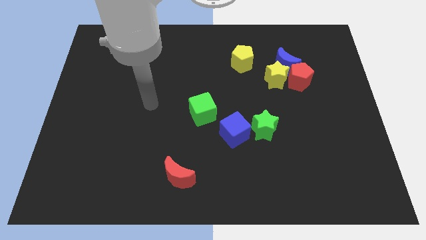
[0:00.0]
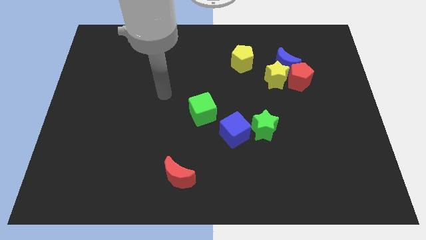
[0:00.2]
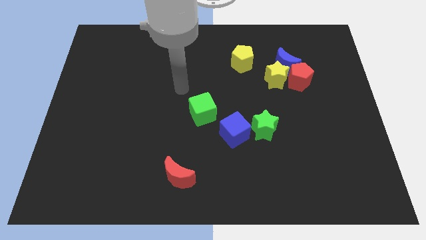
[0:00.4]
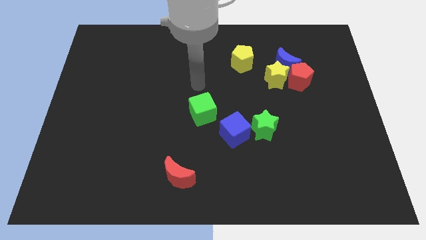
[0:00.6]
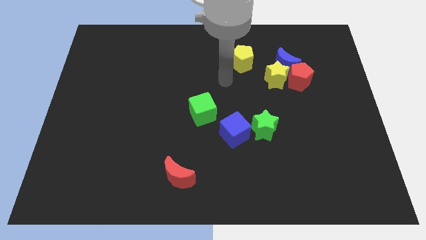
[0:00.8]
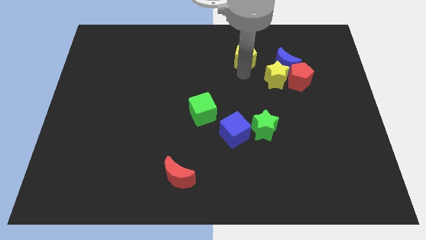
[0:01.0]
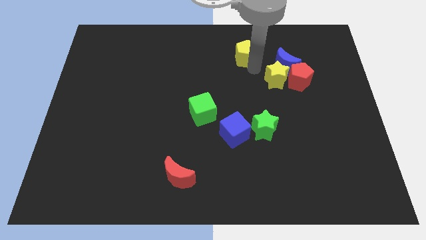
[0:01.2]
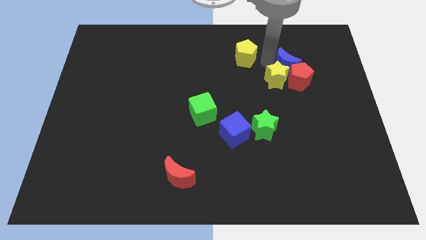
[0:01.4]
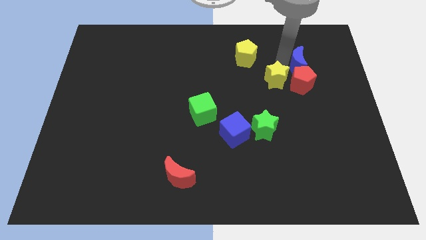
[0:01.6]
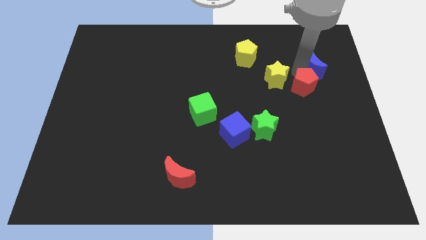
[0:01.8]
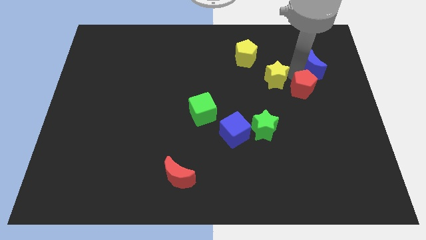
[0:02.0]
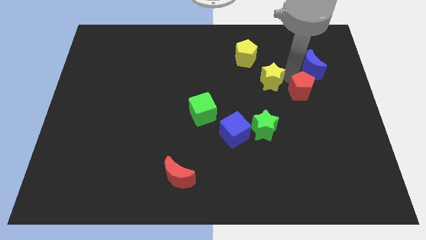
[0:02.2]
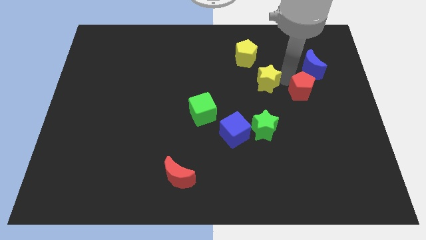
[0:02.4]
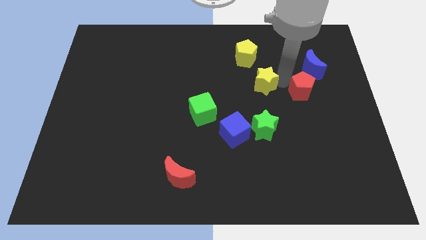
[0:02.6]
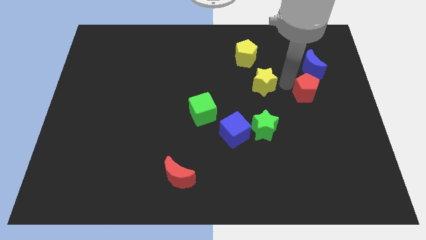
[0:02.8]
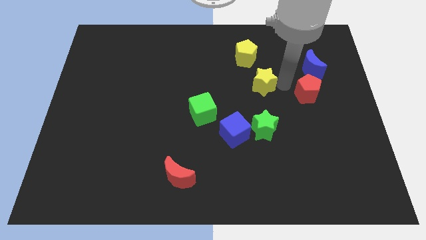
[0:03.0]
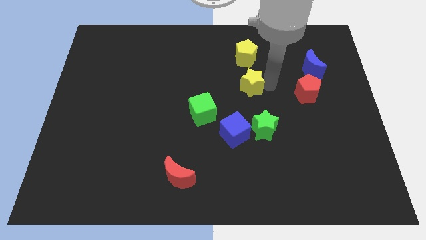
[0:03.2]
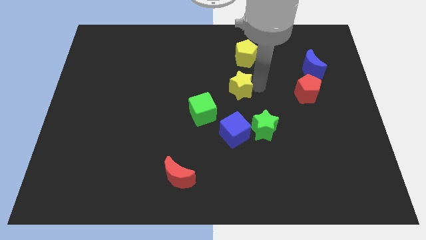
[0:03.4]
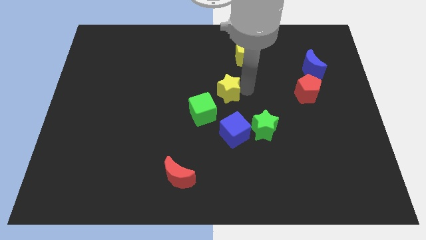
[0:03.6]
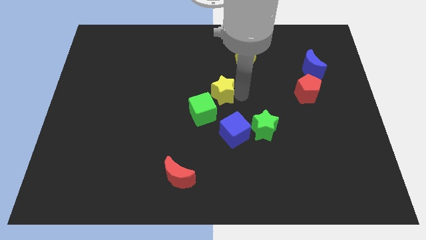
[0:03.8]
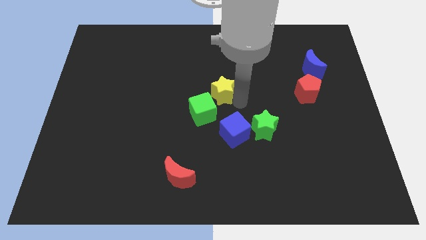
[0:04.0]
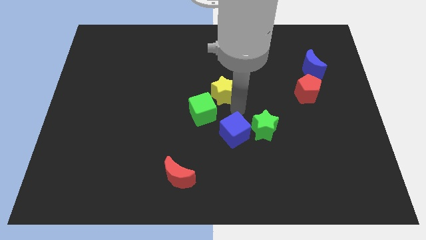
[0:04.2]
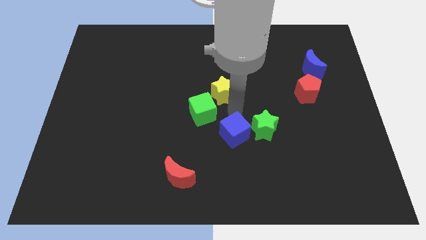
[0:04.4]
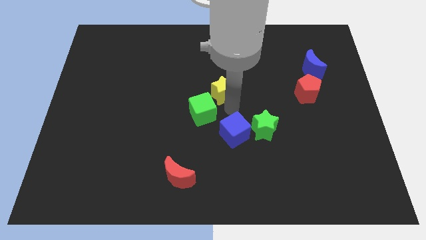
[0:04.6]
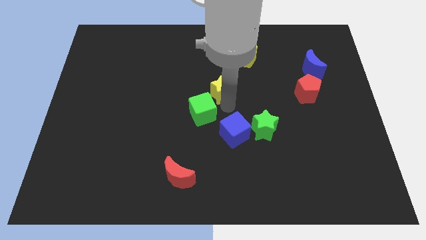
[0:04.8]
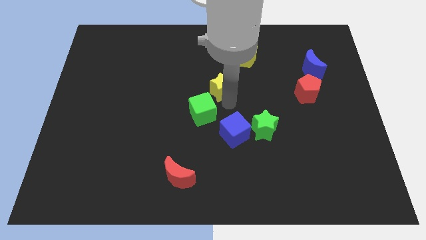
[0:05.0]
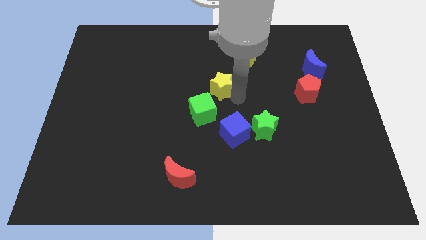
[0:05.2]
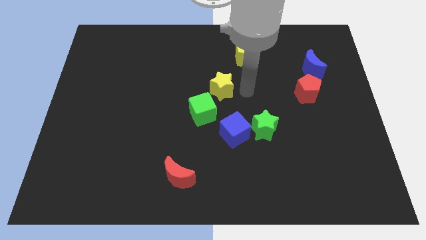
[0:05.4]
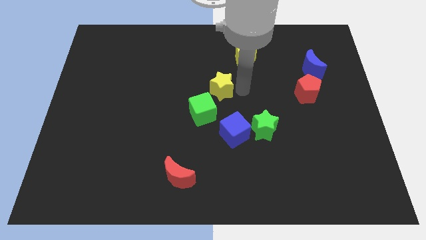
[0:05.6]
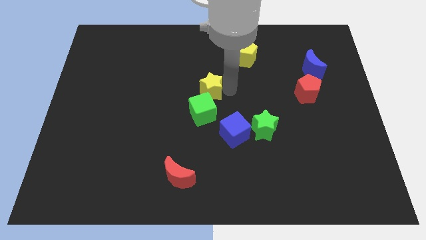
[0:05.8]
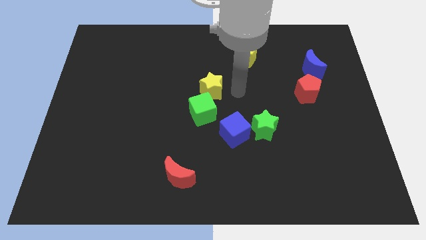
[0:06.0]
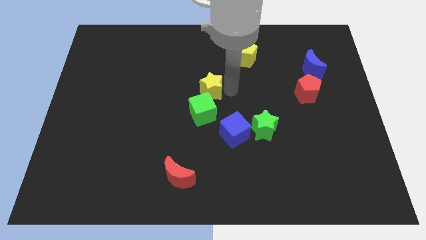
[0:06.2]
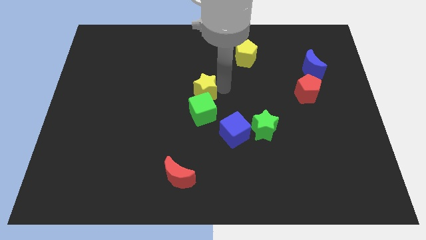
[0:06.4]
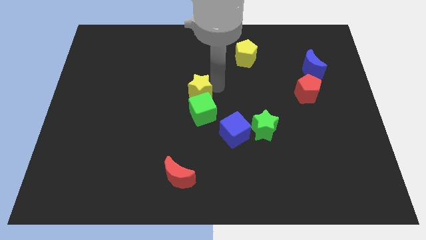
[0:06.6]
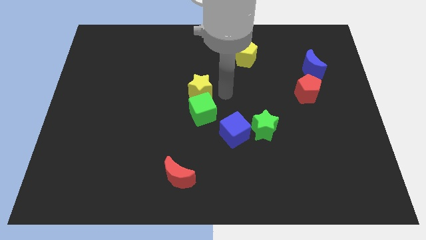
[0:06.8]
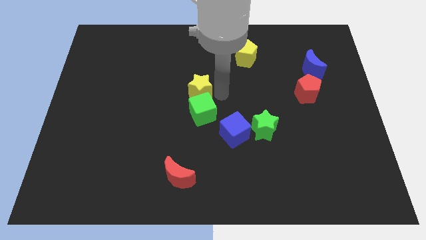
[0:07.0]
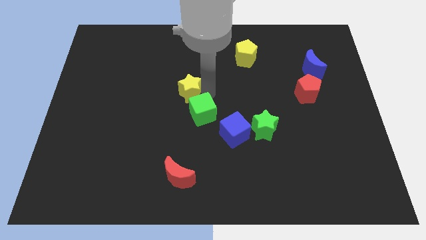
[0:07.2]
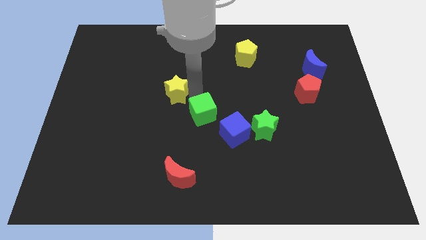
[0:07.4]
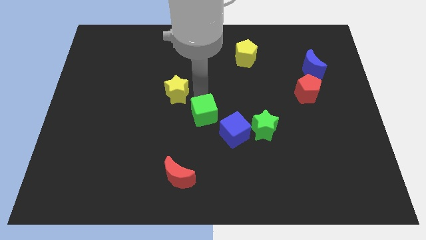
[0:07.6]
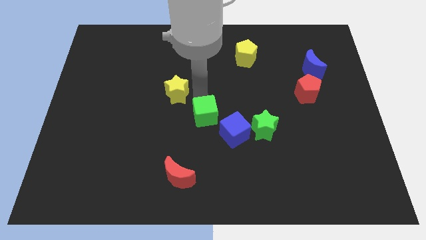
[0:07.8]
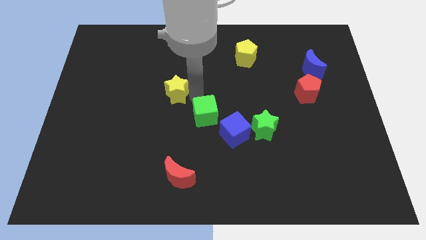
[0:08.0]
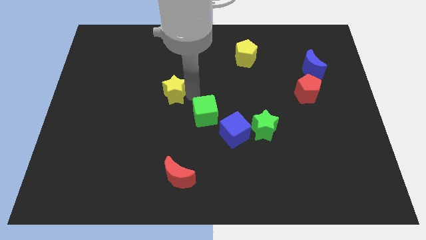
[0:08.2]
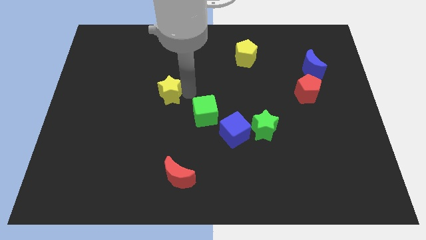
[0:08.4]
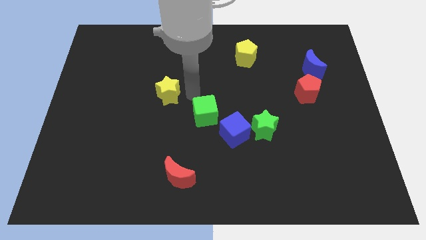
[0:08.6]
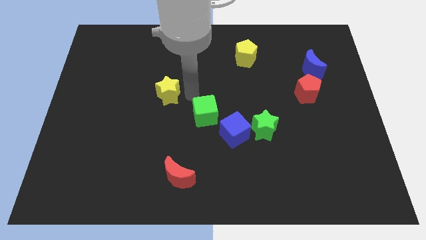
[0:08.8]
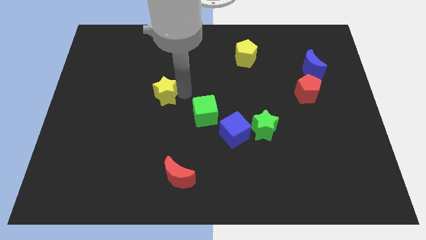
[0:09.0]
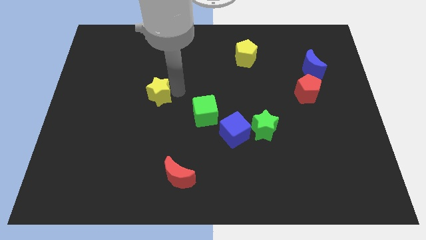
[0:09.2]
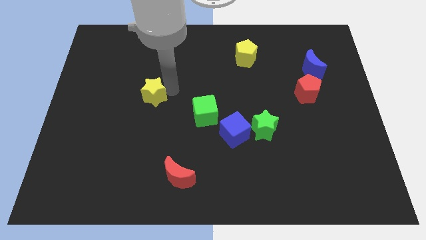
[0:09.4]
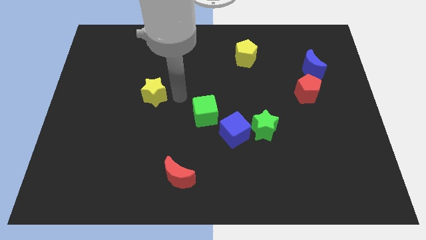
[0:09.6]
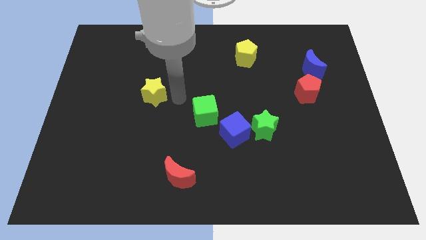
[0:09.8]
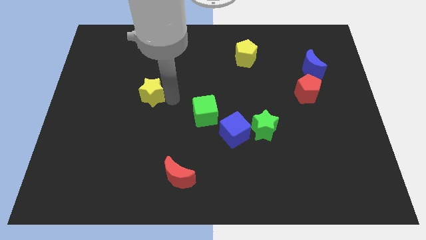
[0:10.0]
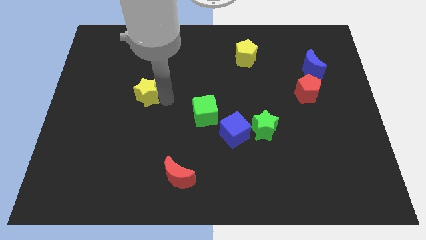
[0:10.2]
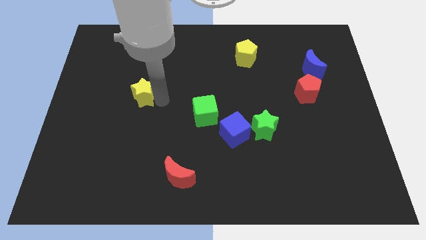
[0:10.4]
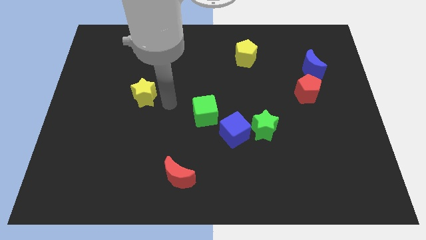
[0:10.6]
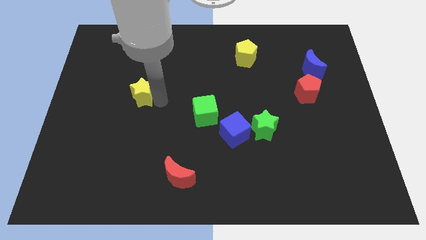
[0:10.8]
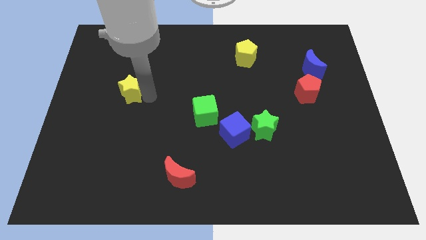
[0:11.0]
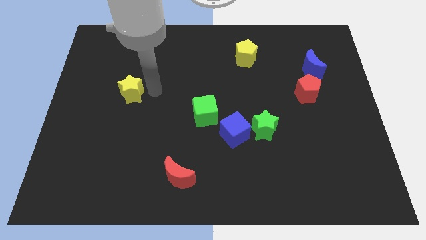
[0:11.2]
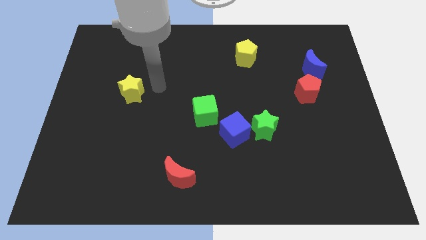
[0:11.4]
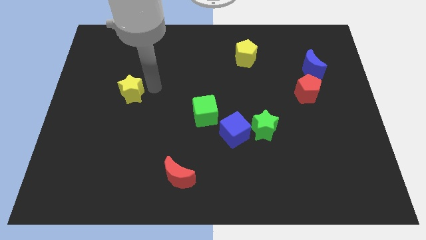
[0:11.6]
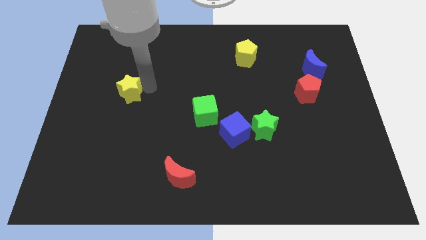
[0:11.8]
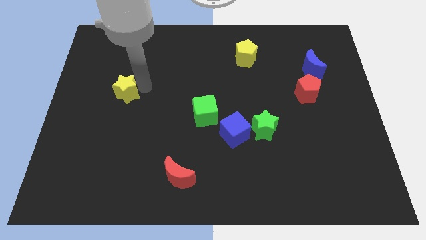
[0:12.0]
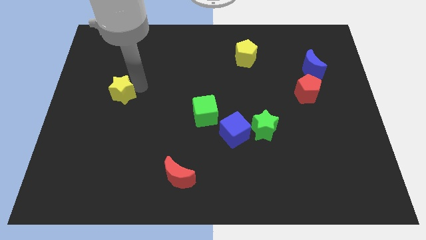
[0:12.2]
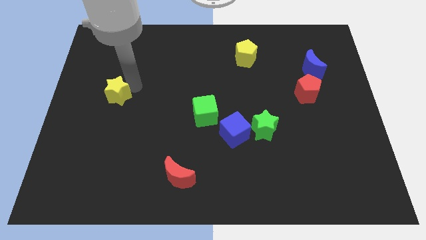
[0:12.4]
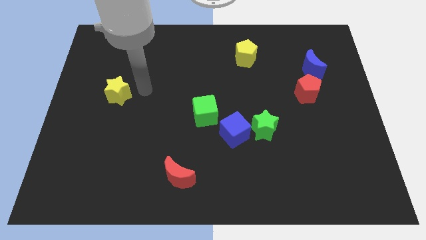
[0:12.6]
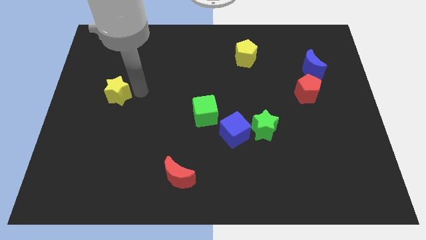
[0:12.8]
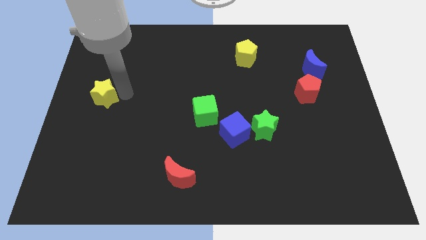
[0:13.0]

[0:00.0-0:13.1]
put the yellow star to the left side of the board
